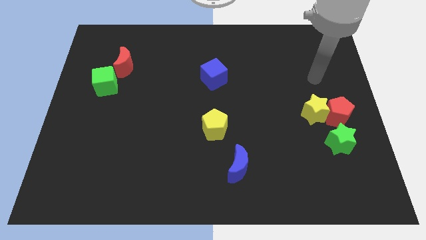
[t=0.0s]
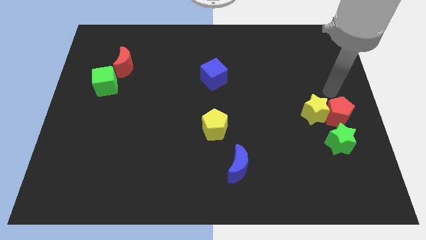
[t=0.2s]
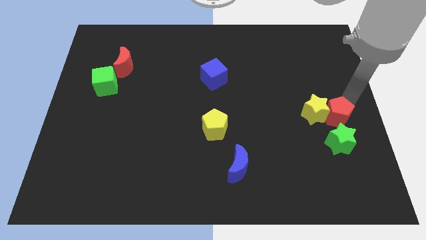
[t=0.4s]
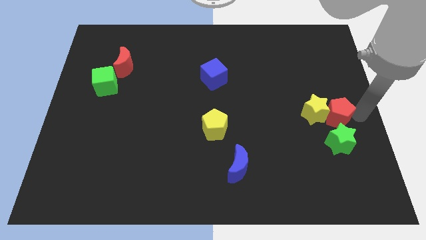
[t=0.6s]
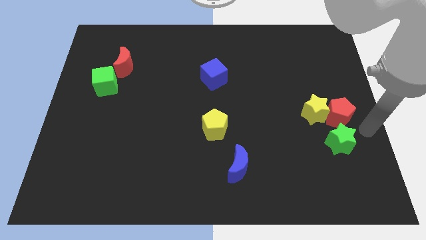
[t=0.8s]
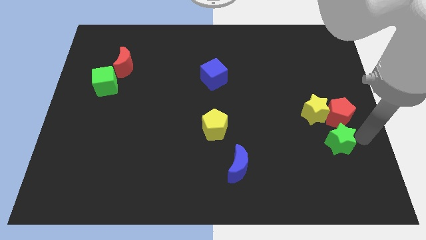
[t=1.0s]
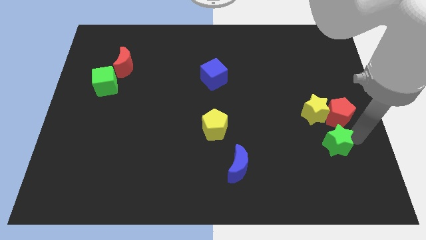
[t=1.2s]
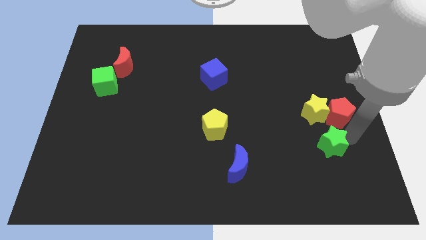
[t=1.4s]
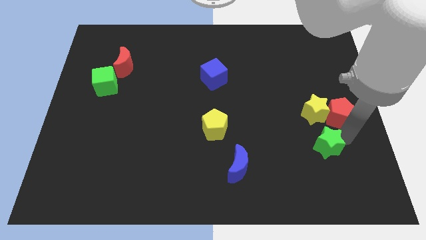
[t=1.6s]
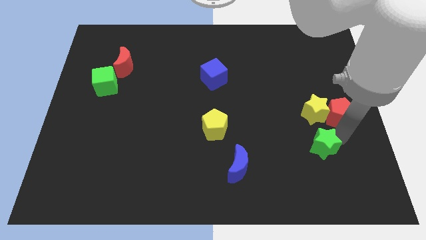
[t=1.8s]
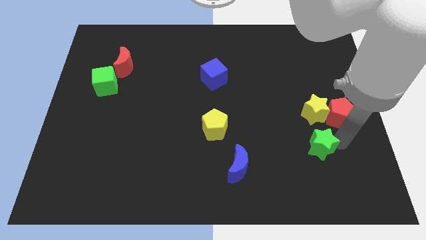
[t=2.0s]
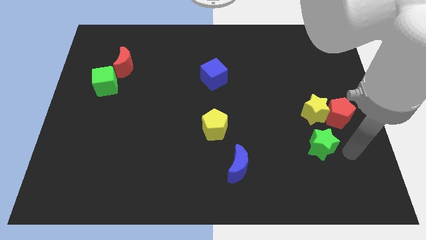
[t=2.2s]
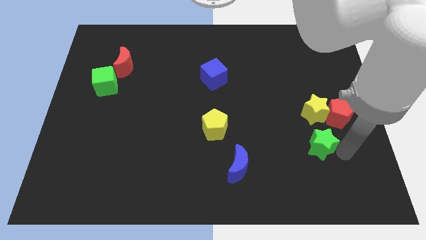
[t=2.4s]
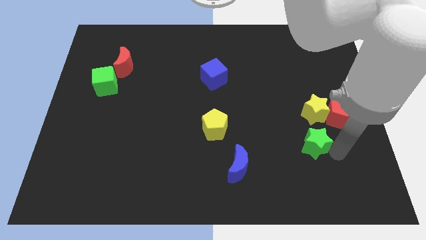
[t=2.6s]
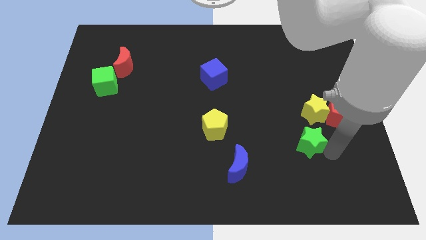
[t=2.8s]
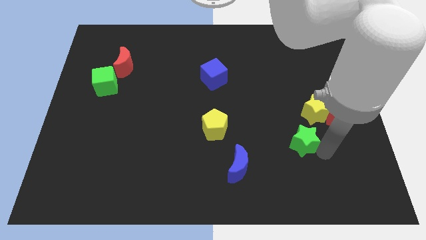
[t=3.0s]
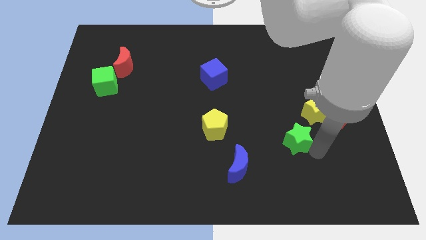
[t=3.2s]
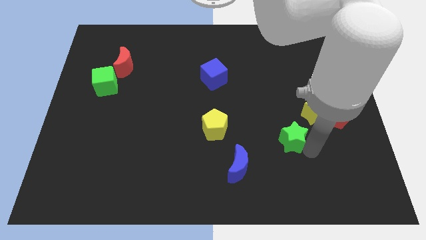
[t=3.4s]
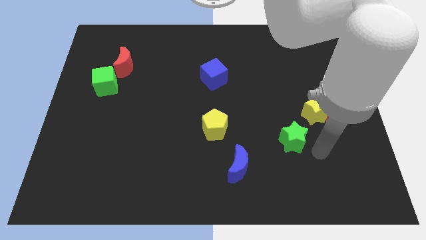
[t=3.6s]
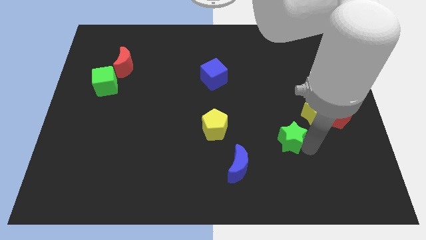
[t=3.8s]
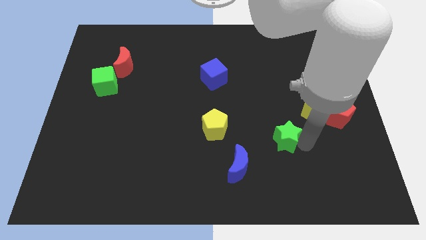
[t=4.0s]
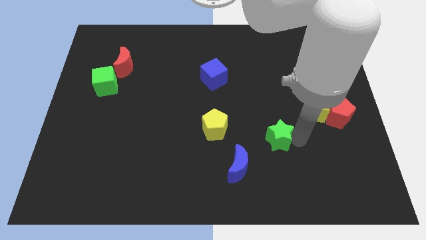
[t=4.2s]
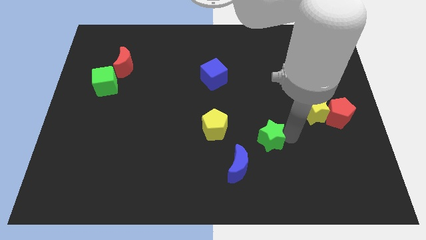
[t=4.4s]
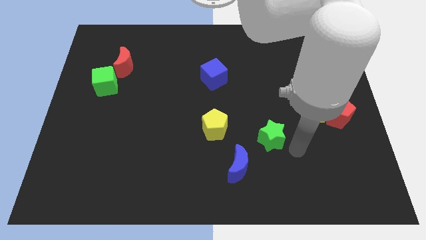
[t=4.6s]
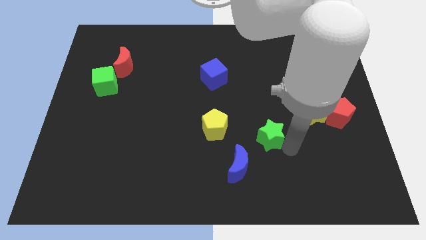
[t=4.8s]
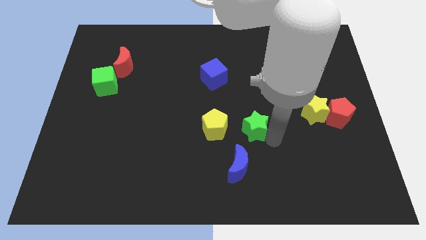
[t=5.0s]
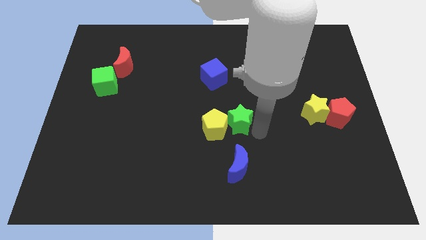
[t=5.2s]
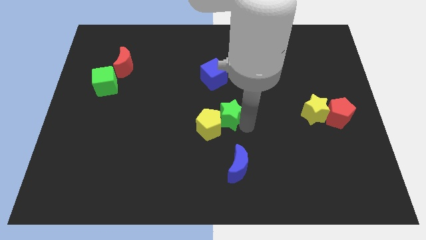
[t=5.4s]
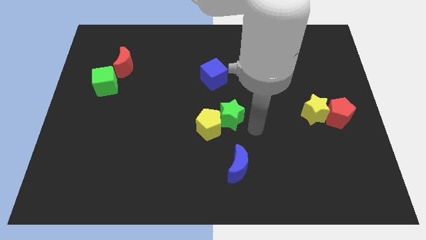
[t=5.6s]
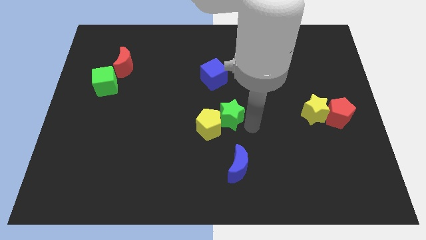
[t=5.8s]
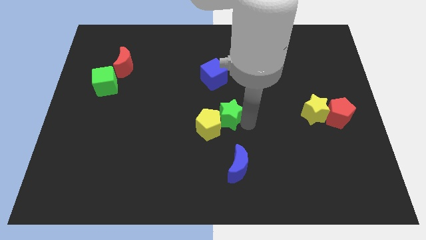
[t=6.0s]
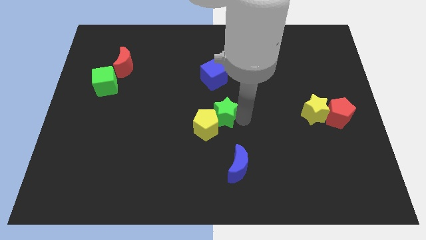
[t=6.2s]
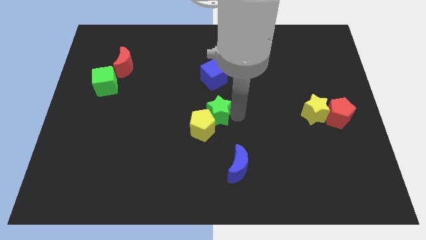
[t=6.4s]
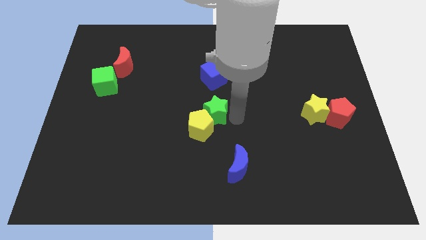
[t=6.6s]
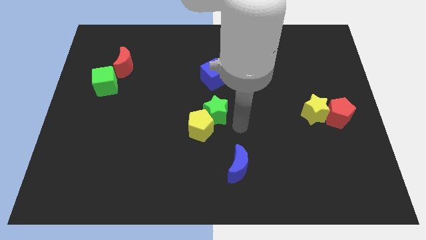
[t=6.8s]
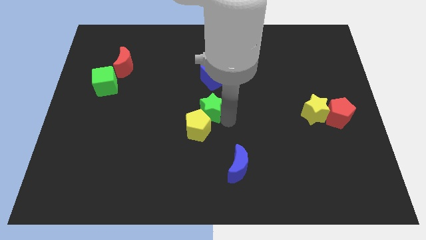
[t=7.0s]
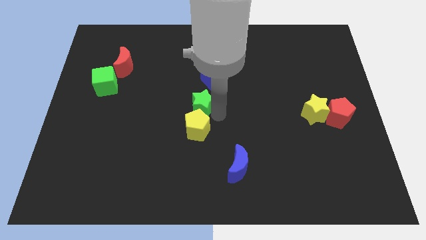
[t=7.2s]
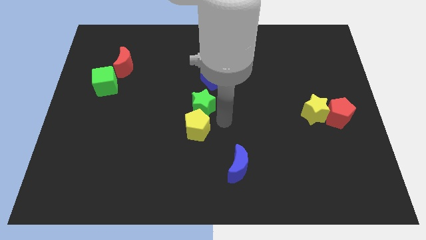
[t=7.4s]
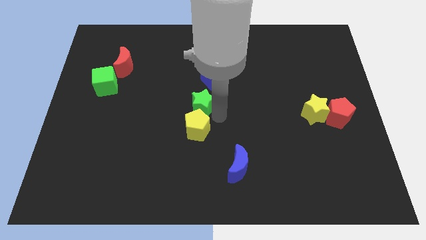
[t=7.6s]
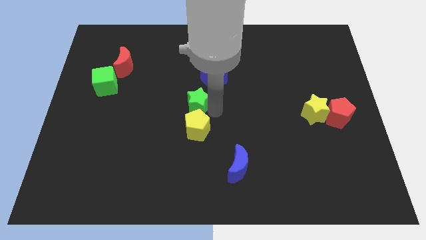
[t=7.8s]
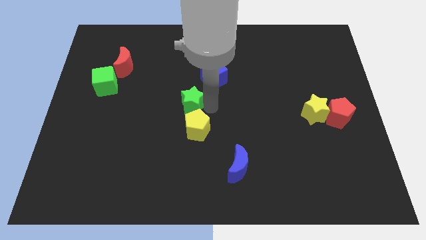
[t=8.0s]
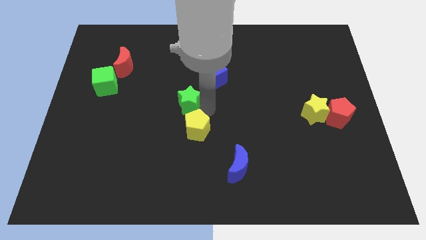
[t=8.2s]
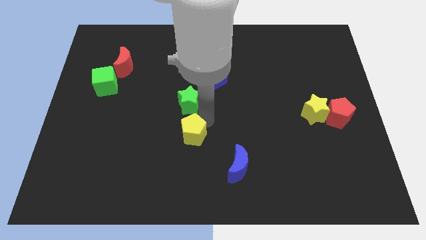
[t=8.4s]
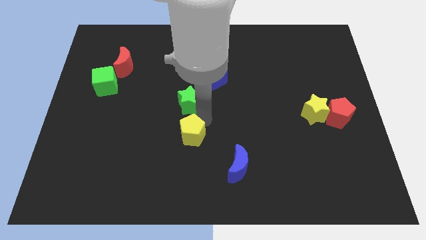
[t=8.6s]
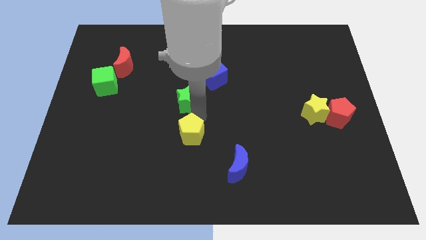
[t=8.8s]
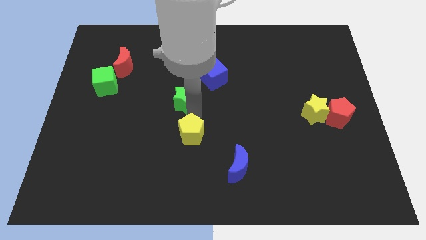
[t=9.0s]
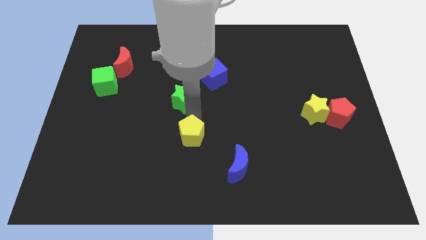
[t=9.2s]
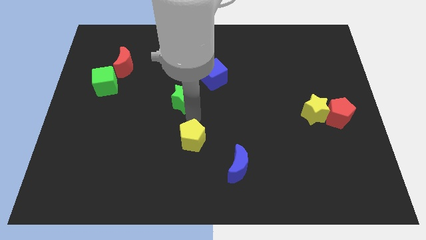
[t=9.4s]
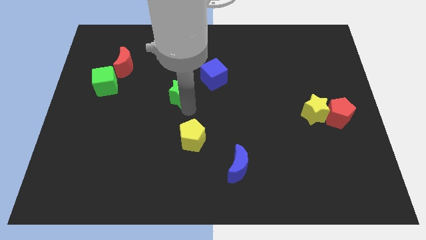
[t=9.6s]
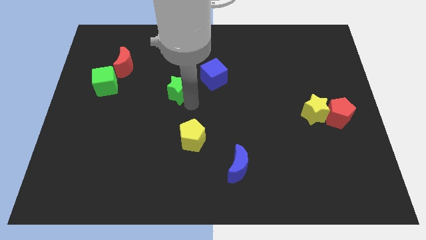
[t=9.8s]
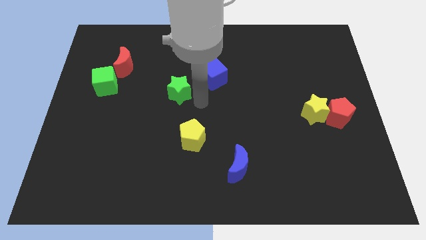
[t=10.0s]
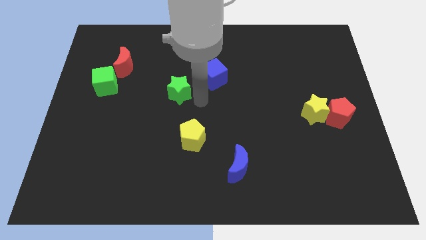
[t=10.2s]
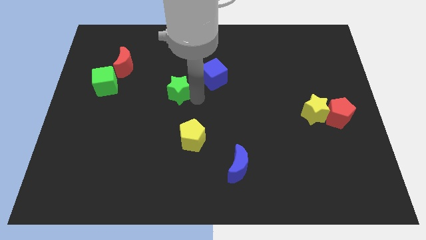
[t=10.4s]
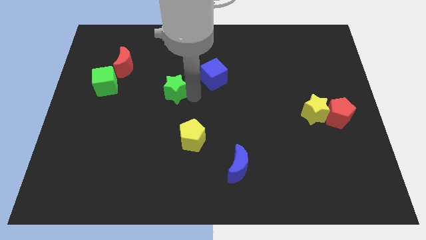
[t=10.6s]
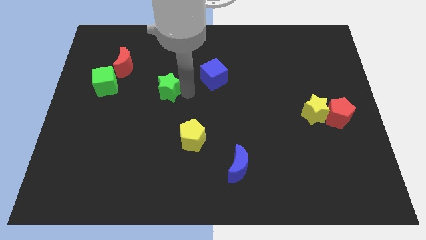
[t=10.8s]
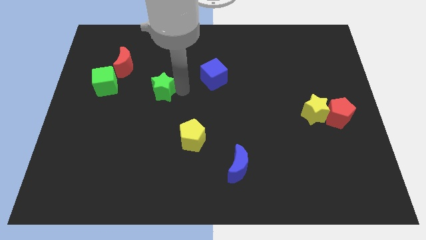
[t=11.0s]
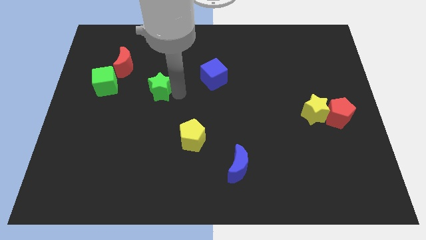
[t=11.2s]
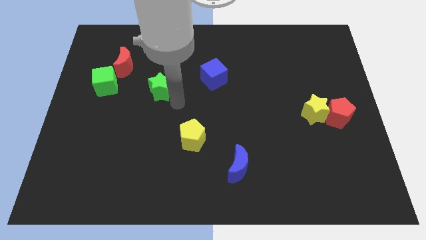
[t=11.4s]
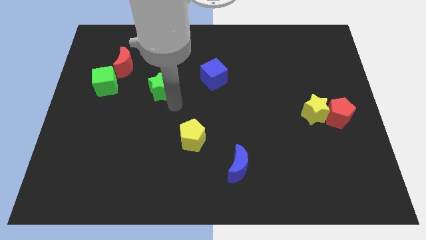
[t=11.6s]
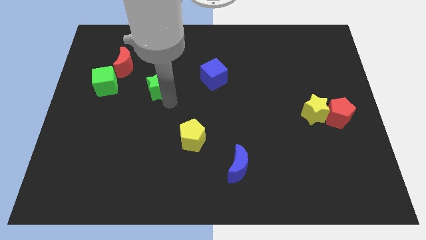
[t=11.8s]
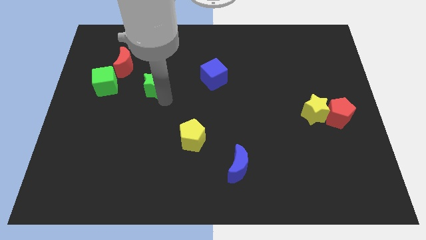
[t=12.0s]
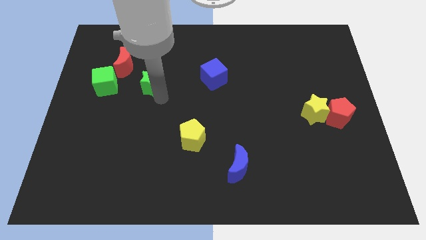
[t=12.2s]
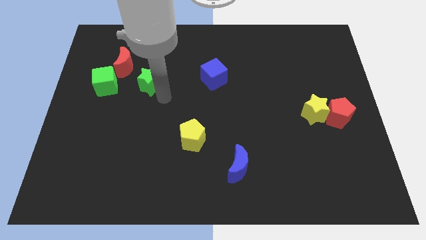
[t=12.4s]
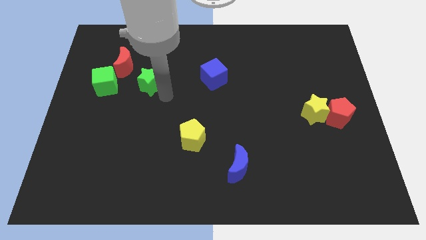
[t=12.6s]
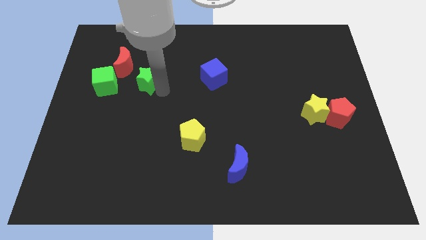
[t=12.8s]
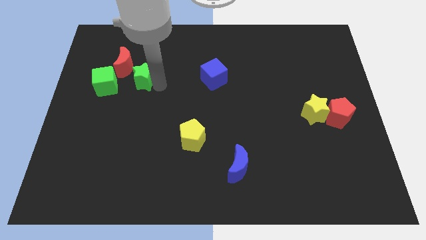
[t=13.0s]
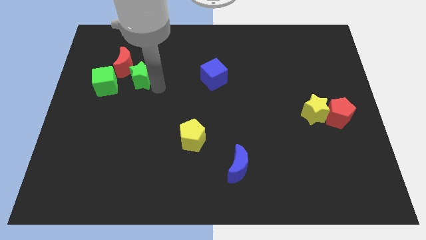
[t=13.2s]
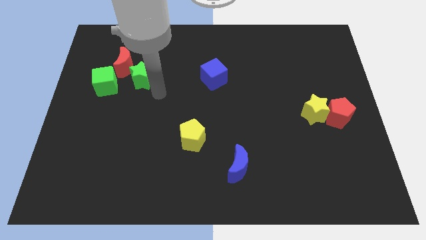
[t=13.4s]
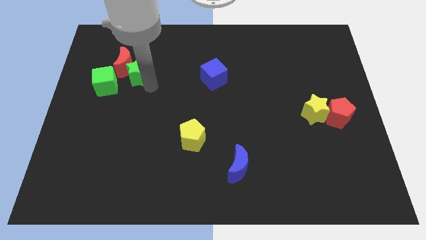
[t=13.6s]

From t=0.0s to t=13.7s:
move the green star towards the red moon

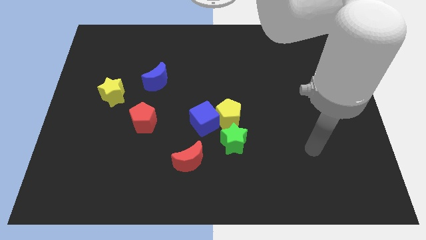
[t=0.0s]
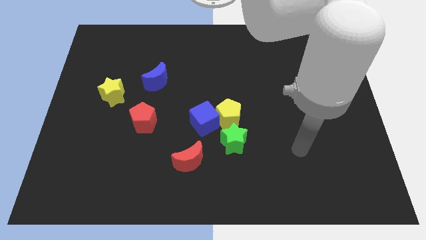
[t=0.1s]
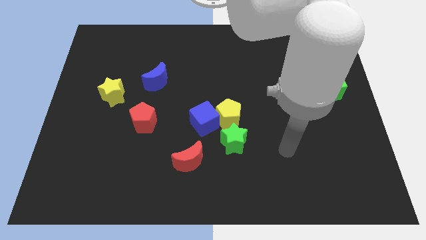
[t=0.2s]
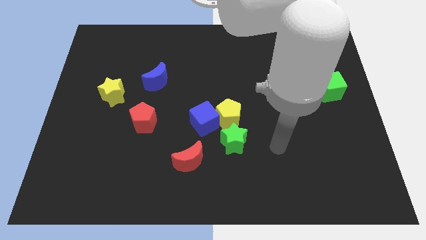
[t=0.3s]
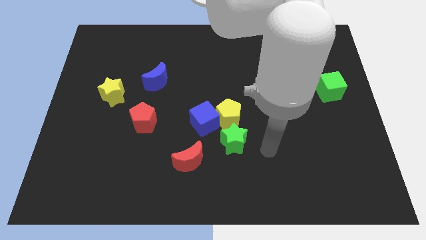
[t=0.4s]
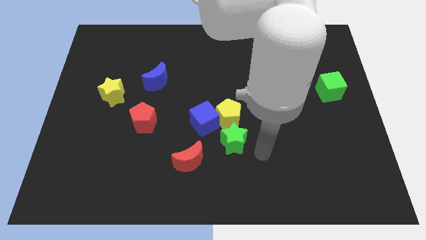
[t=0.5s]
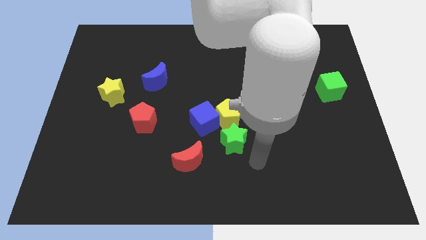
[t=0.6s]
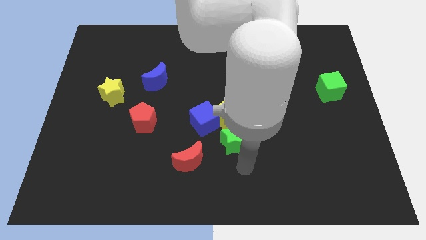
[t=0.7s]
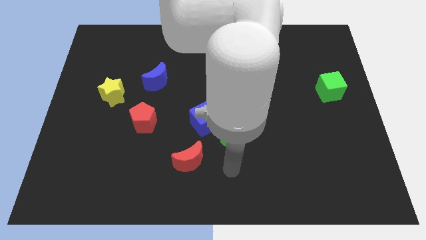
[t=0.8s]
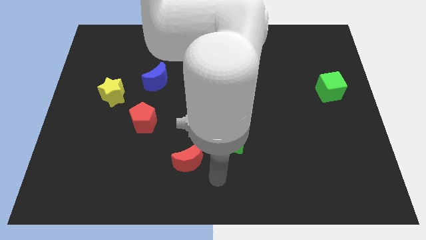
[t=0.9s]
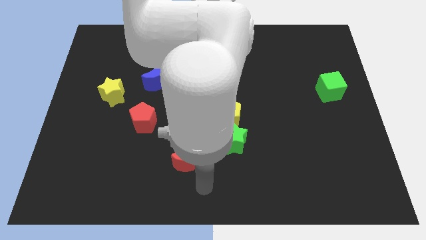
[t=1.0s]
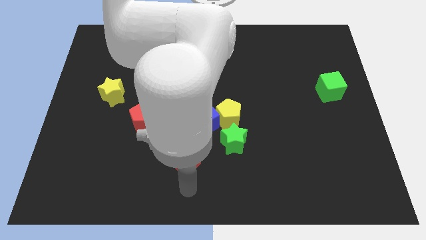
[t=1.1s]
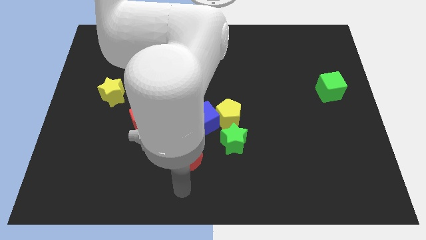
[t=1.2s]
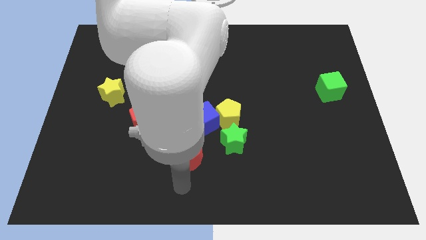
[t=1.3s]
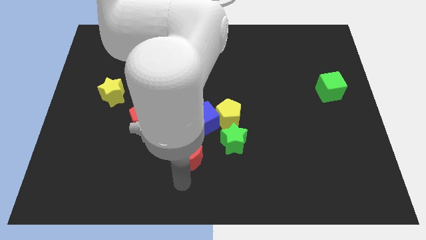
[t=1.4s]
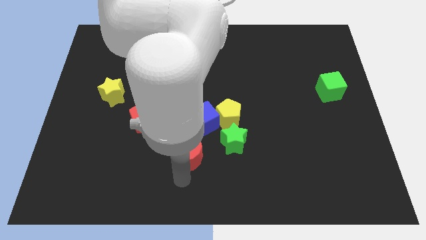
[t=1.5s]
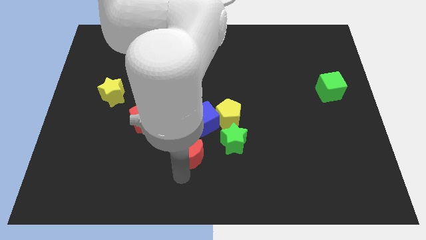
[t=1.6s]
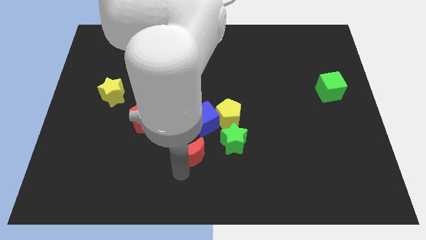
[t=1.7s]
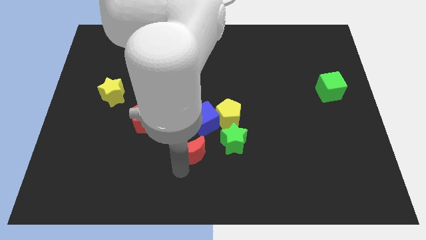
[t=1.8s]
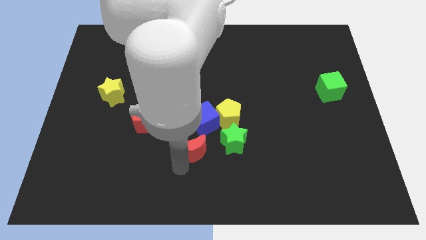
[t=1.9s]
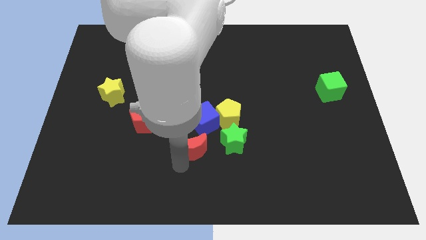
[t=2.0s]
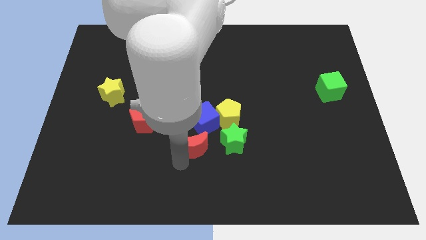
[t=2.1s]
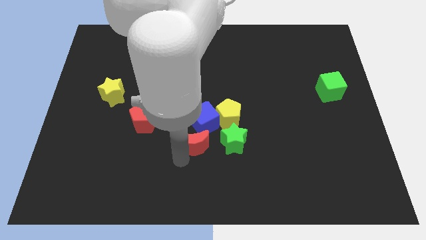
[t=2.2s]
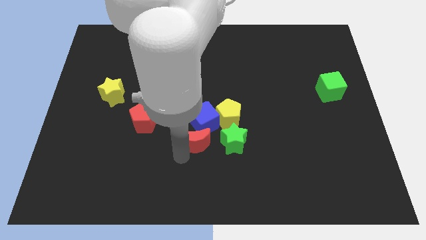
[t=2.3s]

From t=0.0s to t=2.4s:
slide the red moon close to the blue cube
